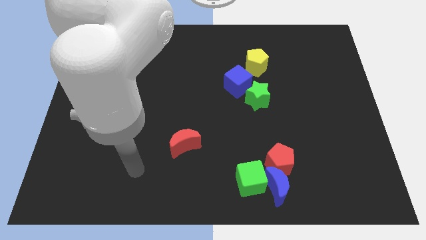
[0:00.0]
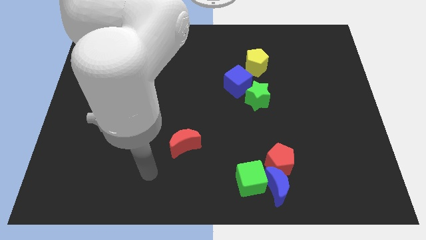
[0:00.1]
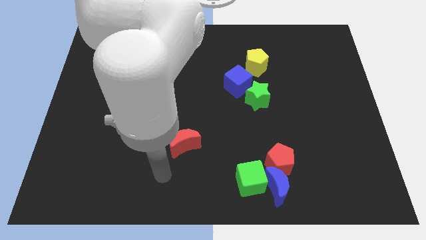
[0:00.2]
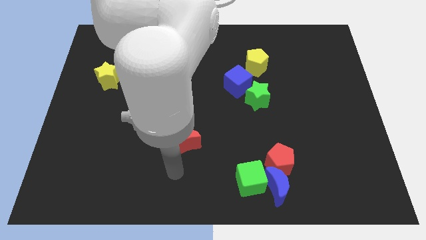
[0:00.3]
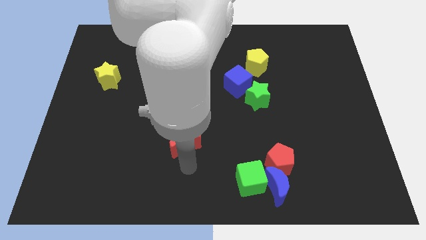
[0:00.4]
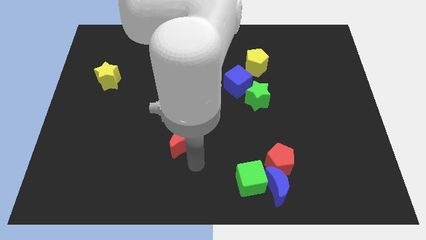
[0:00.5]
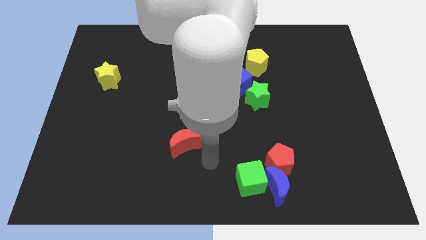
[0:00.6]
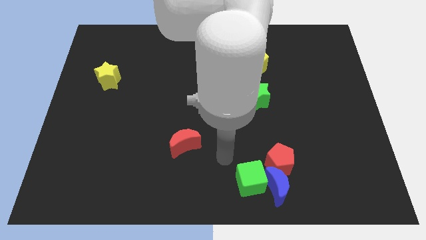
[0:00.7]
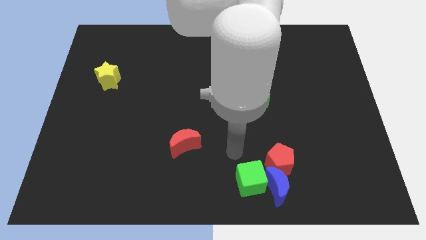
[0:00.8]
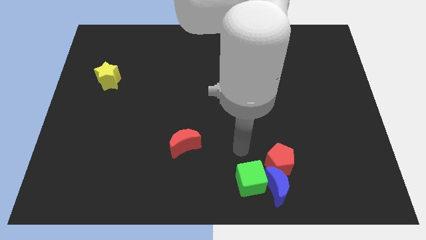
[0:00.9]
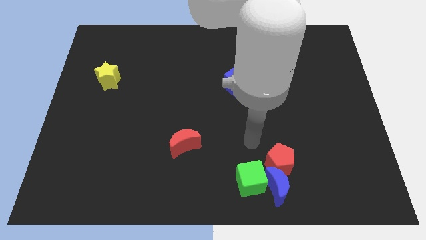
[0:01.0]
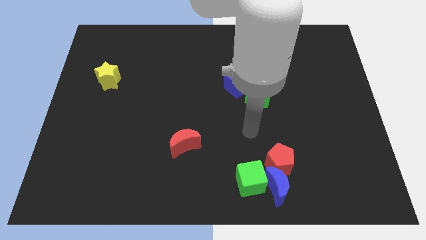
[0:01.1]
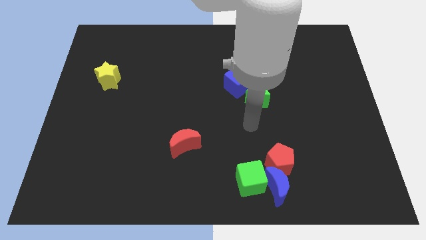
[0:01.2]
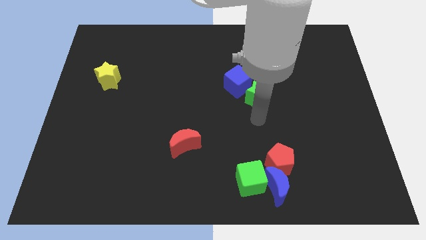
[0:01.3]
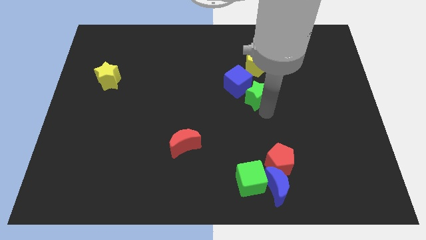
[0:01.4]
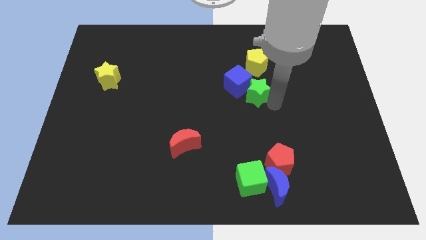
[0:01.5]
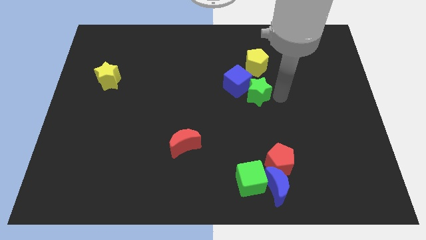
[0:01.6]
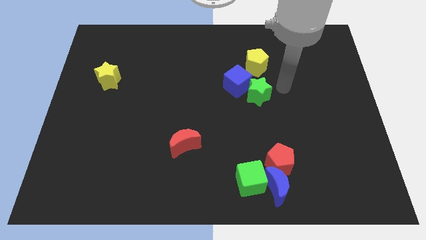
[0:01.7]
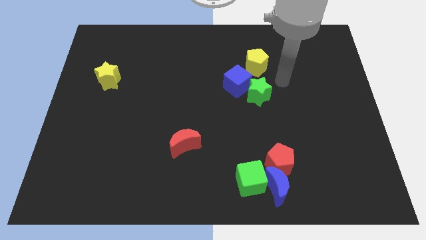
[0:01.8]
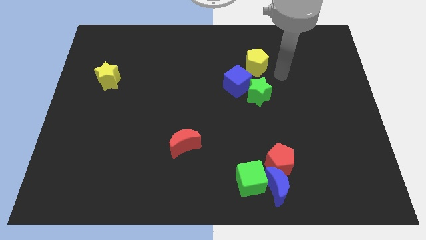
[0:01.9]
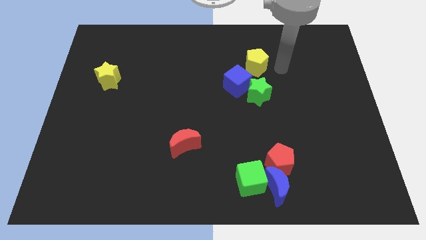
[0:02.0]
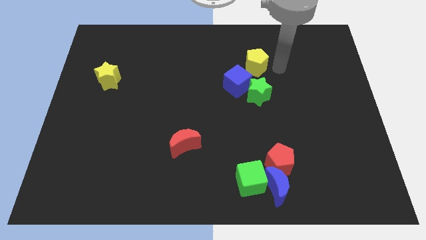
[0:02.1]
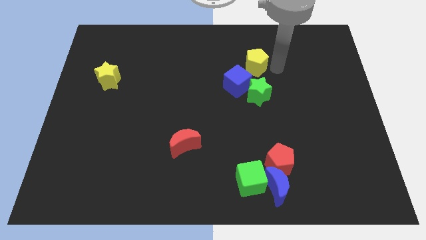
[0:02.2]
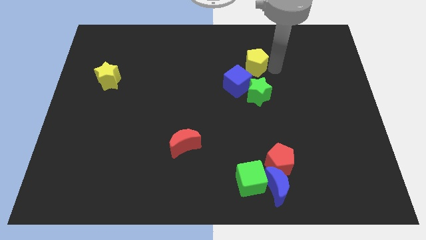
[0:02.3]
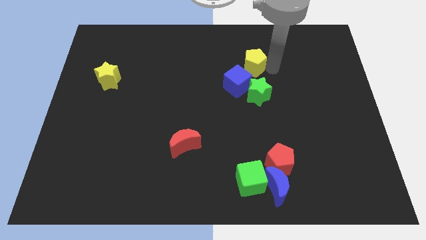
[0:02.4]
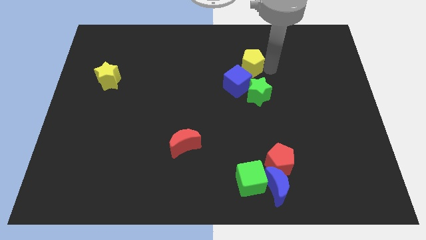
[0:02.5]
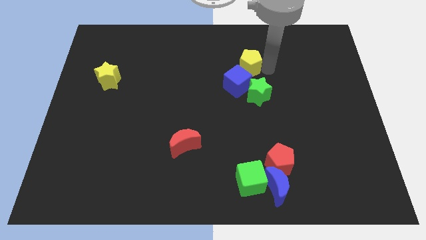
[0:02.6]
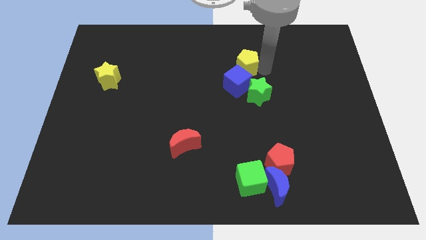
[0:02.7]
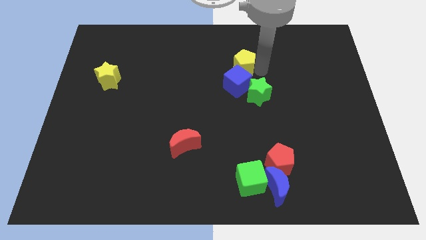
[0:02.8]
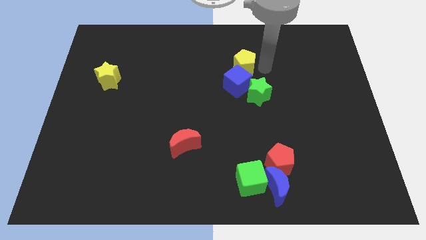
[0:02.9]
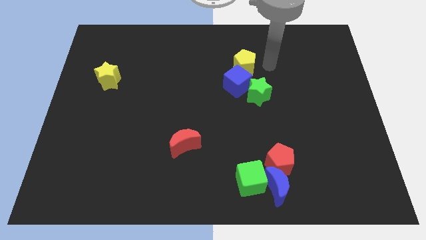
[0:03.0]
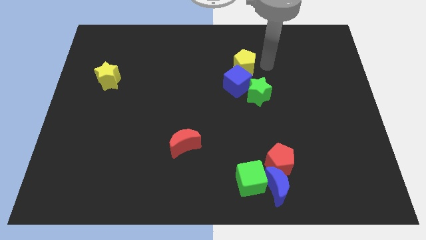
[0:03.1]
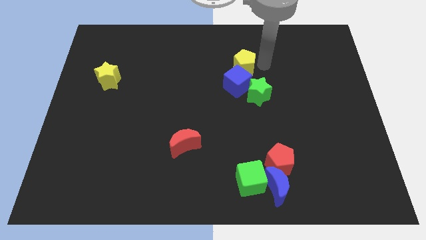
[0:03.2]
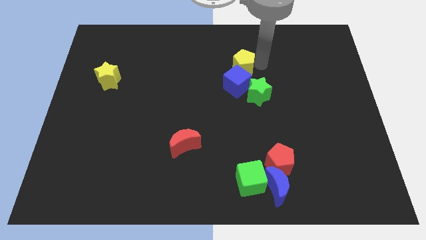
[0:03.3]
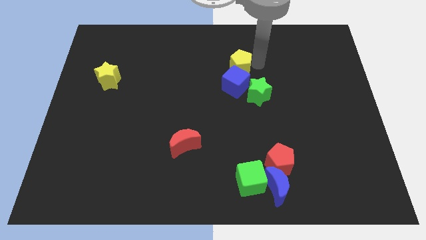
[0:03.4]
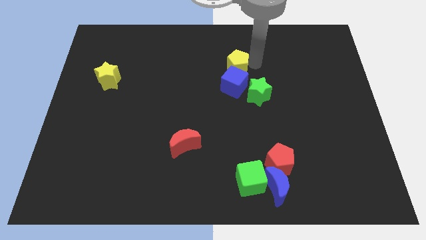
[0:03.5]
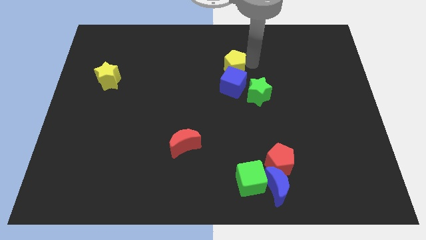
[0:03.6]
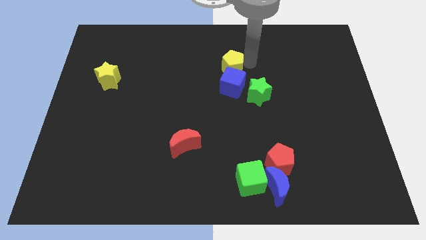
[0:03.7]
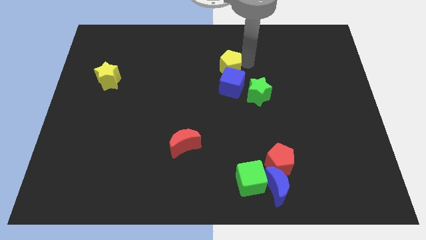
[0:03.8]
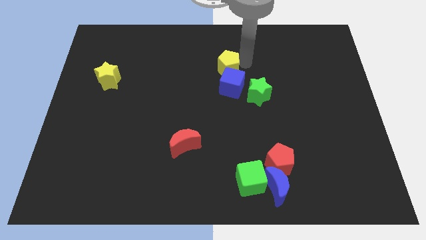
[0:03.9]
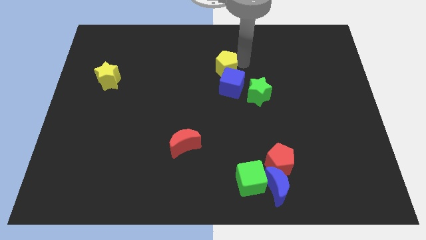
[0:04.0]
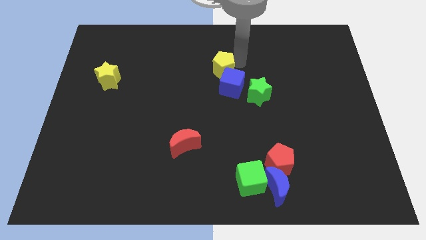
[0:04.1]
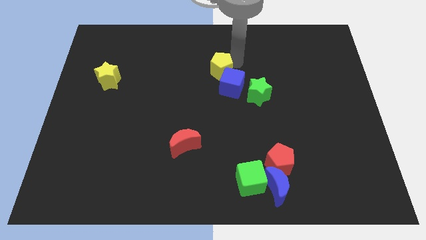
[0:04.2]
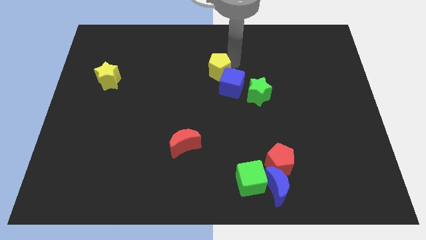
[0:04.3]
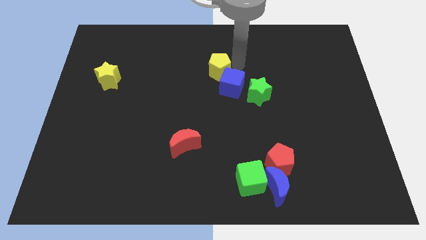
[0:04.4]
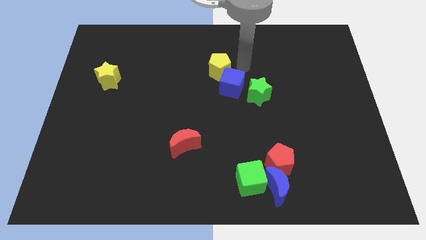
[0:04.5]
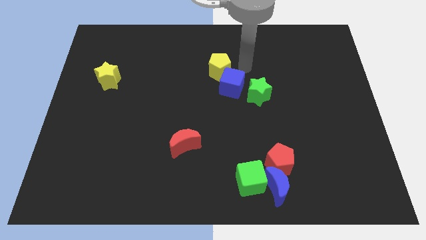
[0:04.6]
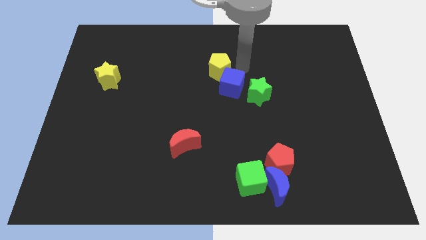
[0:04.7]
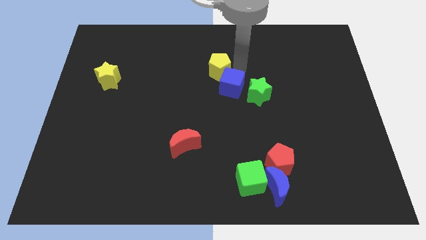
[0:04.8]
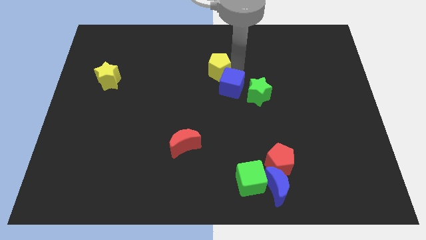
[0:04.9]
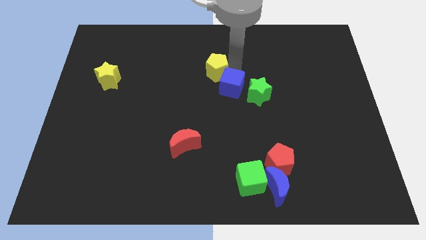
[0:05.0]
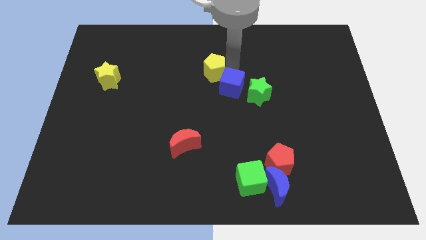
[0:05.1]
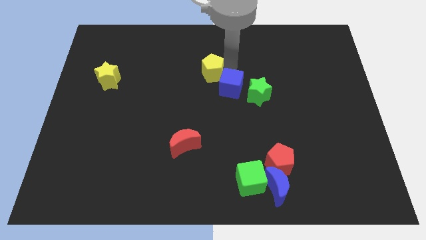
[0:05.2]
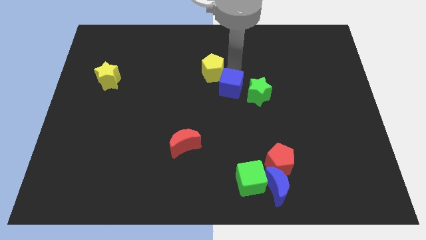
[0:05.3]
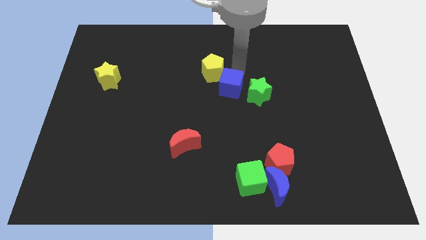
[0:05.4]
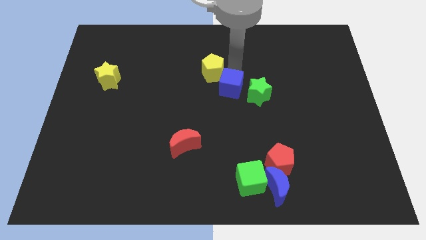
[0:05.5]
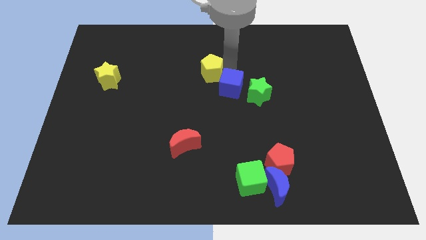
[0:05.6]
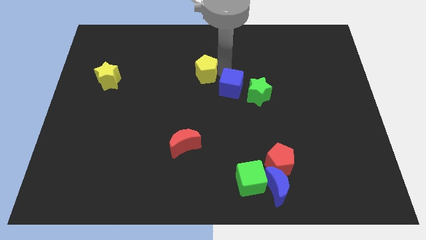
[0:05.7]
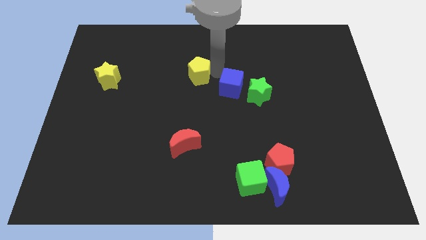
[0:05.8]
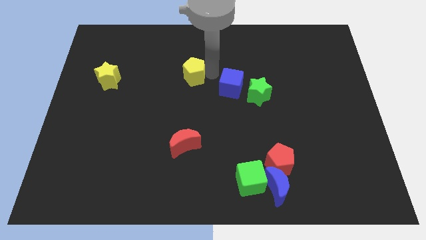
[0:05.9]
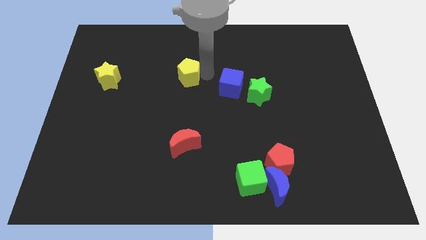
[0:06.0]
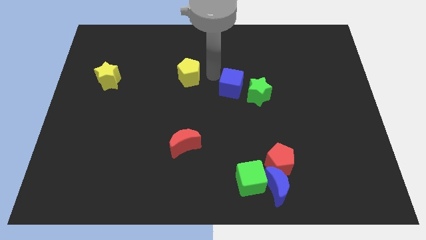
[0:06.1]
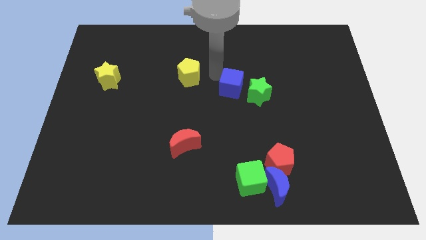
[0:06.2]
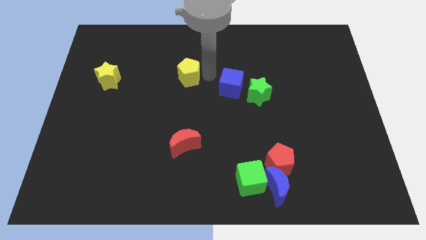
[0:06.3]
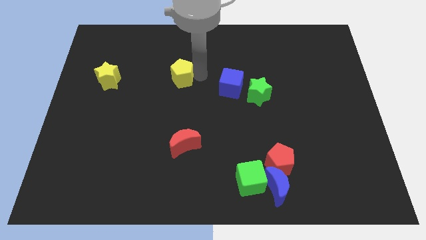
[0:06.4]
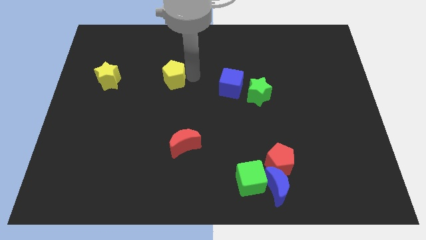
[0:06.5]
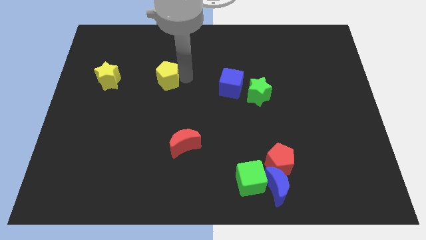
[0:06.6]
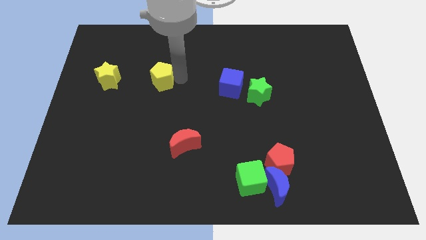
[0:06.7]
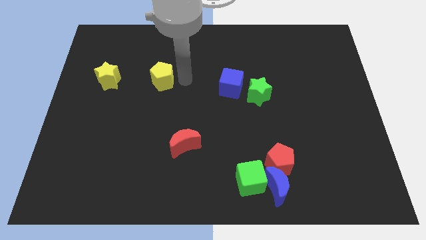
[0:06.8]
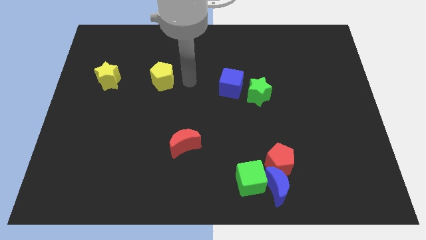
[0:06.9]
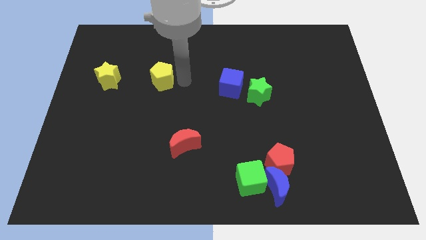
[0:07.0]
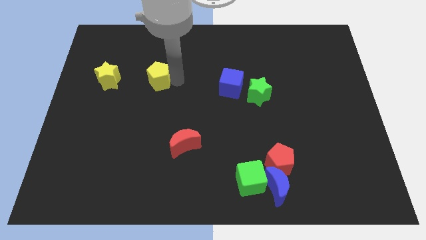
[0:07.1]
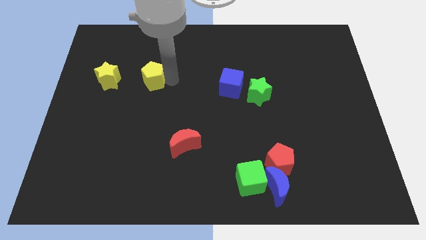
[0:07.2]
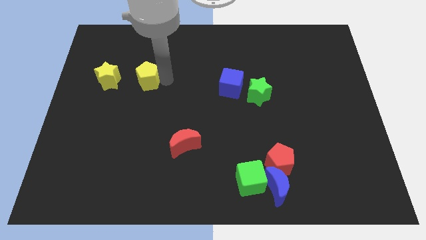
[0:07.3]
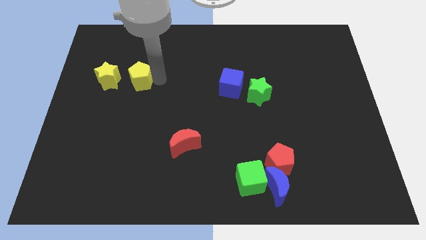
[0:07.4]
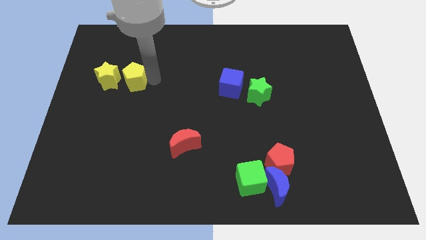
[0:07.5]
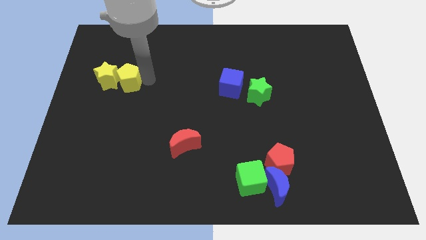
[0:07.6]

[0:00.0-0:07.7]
put the yellow pentagon towards the yellow star

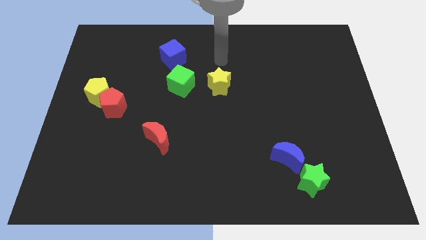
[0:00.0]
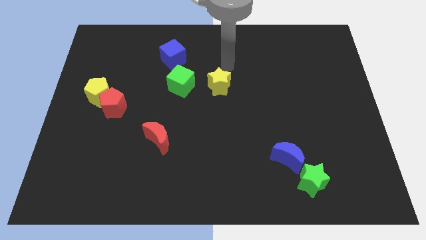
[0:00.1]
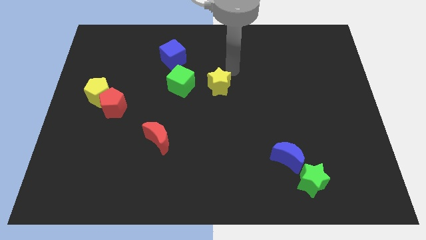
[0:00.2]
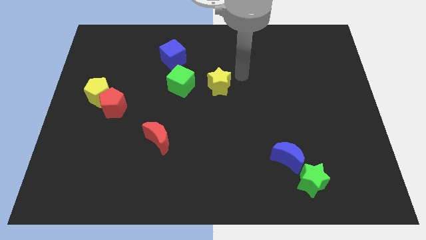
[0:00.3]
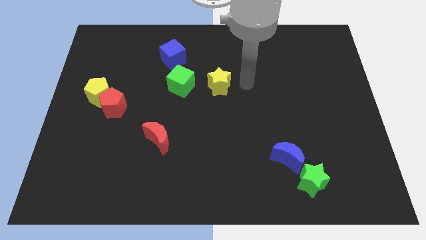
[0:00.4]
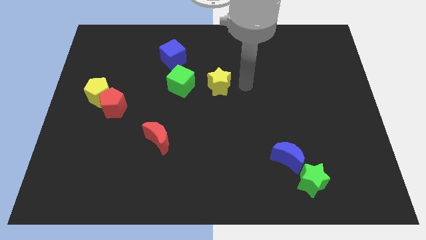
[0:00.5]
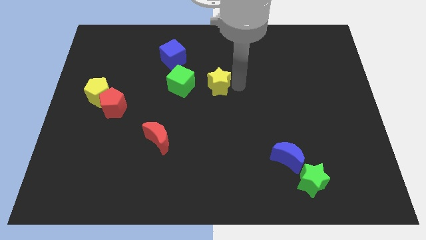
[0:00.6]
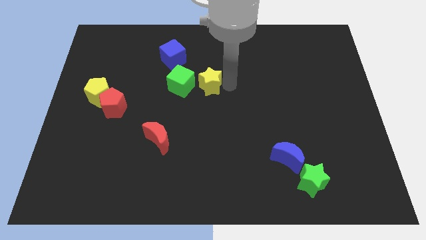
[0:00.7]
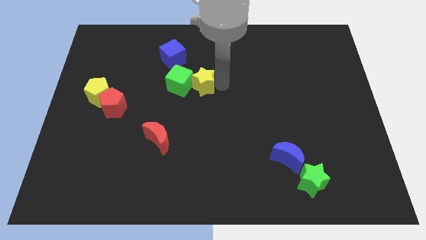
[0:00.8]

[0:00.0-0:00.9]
slide the yellow star next to the green cube
